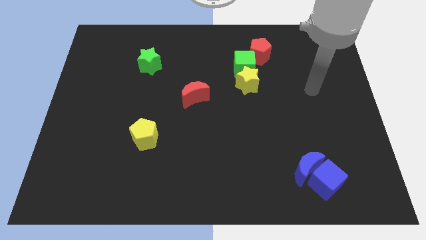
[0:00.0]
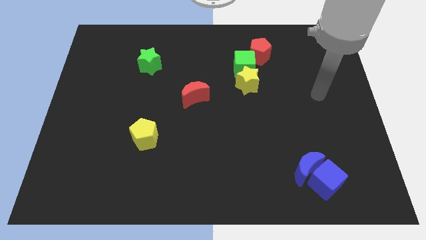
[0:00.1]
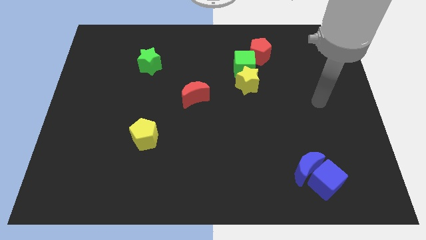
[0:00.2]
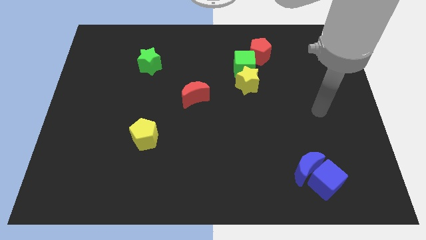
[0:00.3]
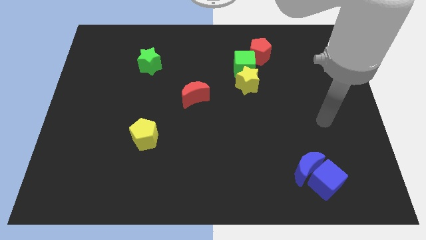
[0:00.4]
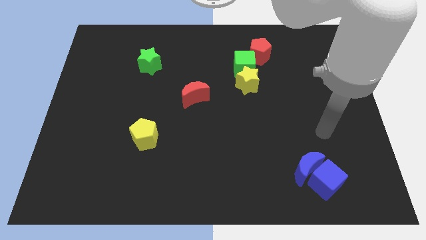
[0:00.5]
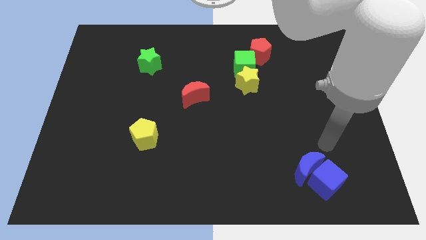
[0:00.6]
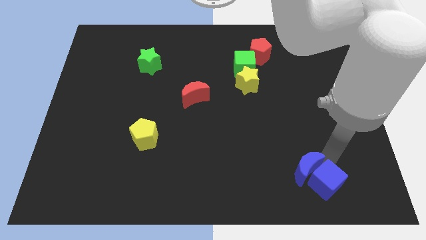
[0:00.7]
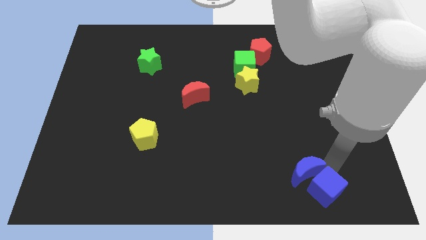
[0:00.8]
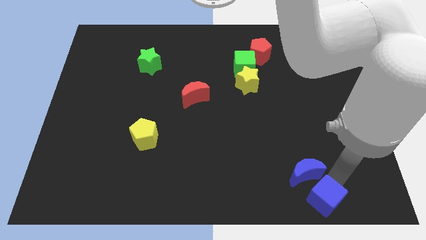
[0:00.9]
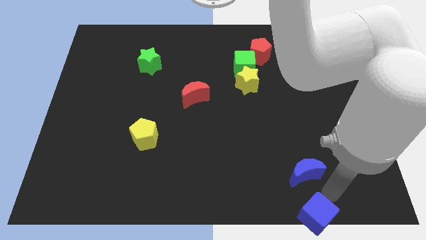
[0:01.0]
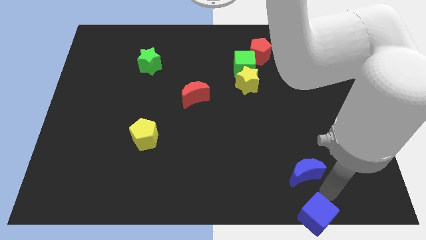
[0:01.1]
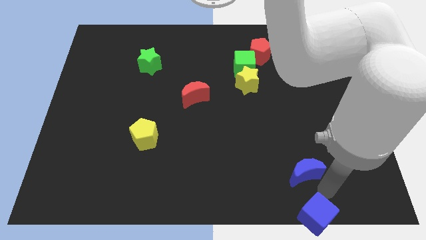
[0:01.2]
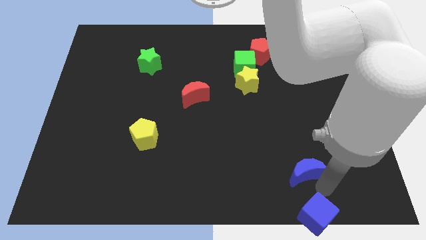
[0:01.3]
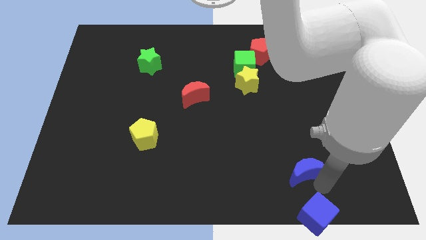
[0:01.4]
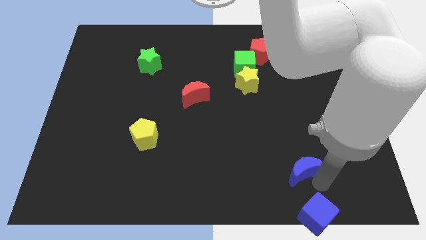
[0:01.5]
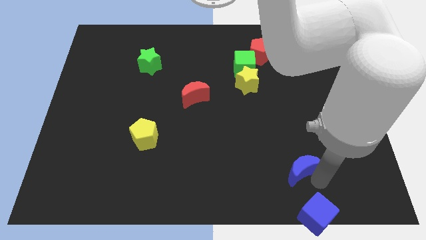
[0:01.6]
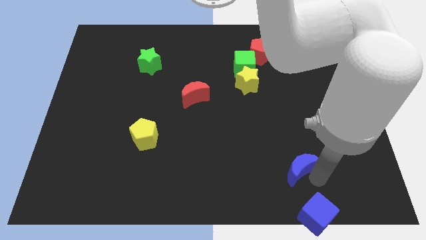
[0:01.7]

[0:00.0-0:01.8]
move the blue moon away from the blue cube

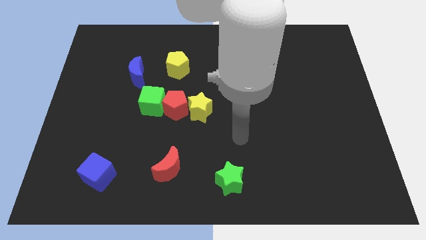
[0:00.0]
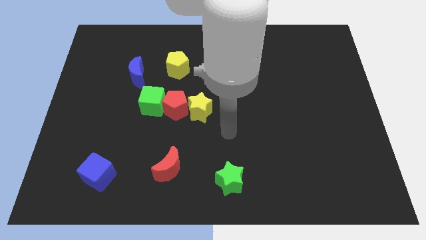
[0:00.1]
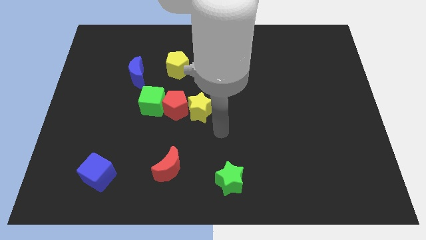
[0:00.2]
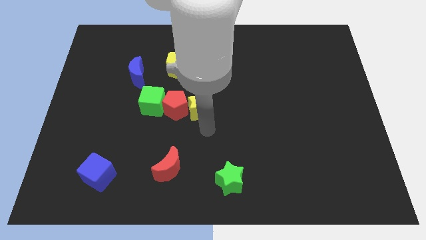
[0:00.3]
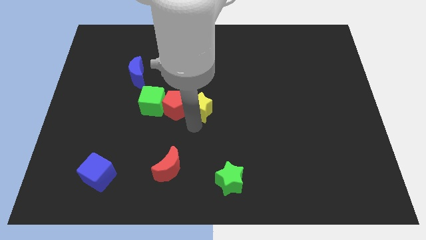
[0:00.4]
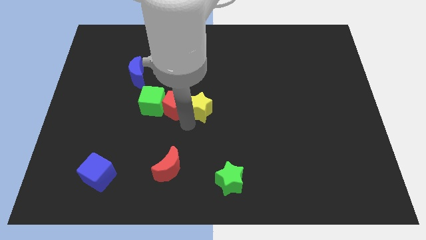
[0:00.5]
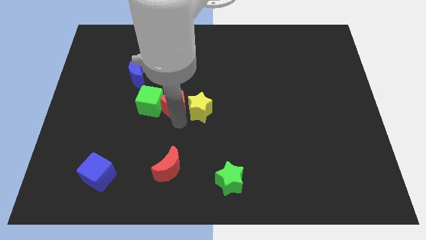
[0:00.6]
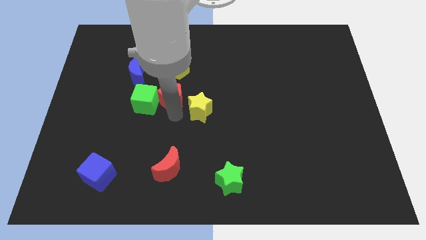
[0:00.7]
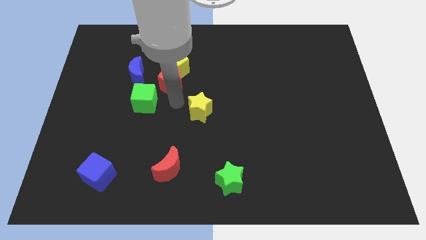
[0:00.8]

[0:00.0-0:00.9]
separate the yellow star from the red pentagon

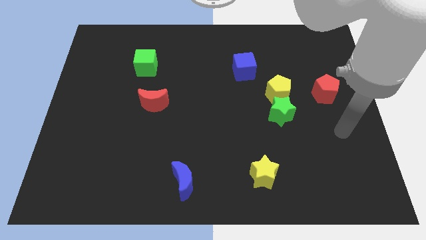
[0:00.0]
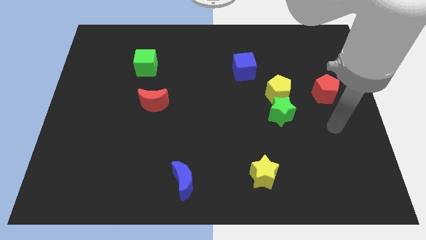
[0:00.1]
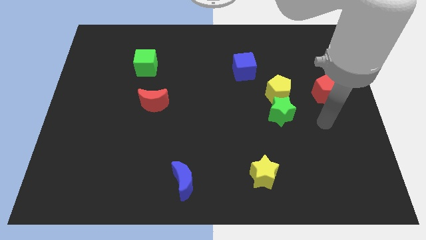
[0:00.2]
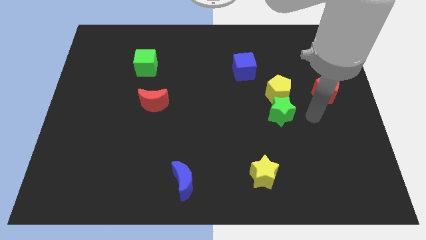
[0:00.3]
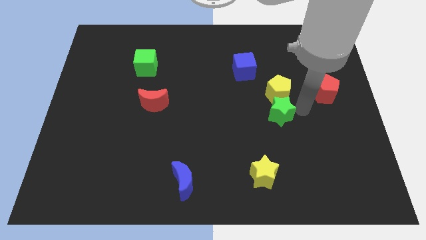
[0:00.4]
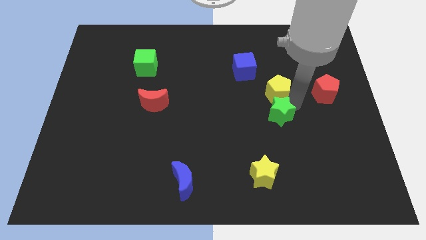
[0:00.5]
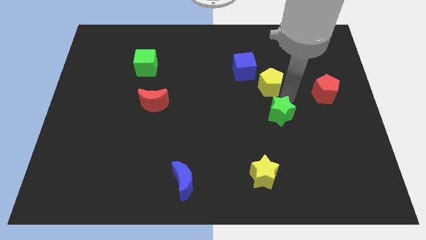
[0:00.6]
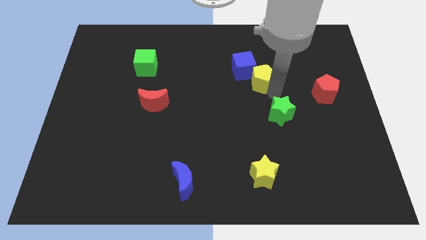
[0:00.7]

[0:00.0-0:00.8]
move the green star away from the yellow pentagon

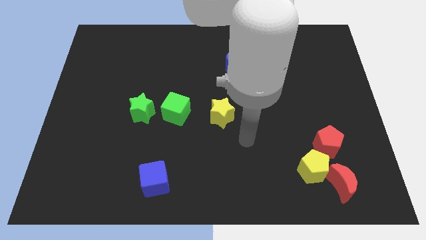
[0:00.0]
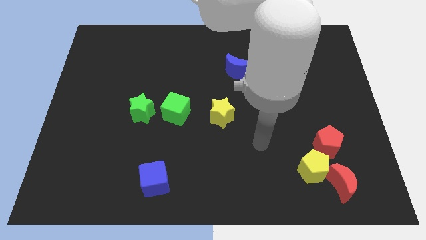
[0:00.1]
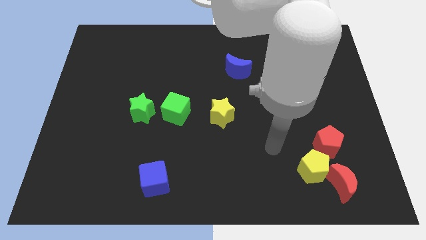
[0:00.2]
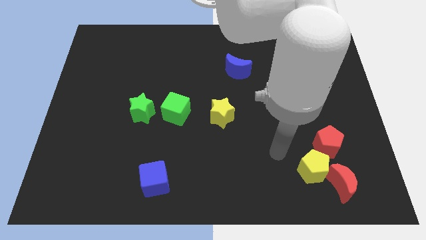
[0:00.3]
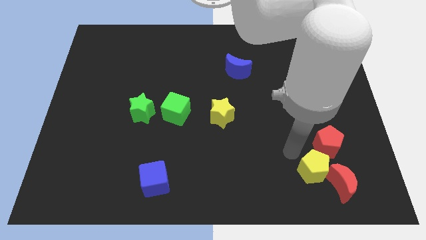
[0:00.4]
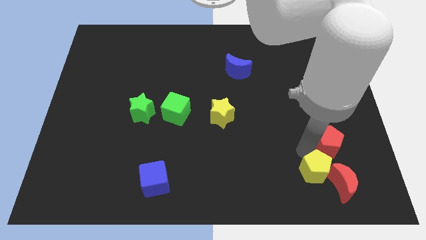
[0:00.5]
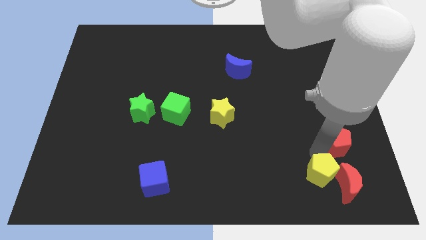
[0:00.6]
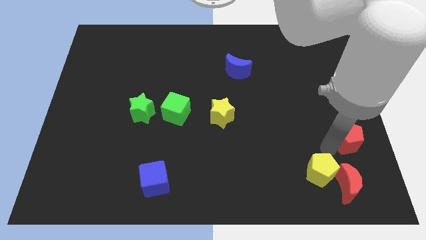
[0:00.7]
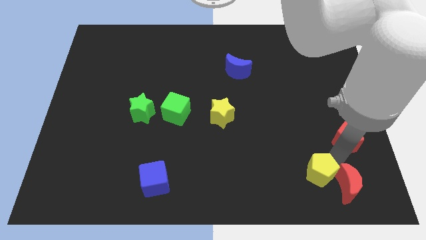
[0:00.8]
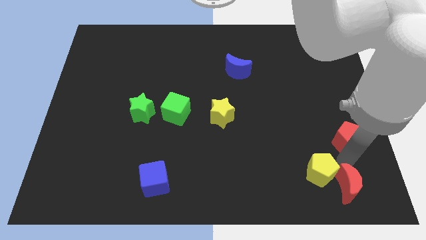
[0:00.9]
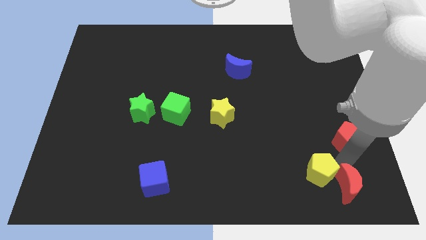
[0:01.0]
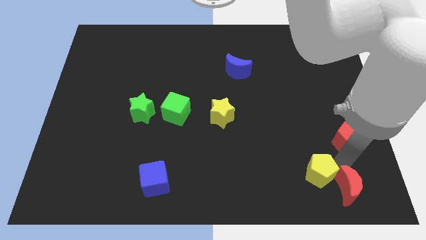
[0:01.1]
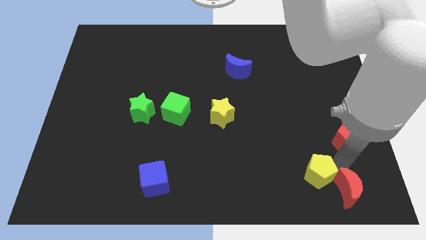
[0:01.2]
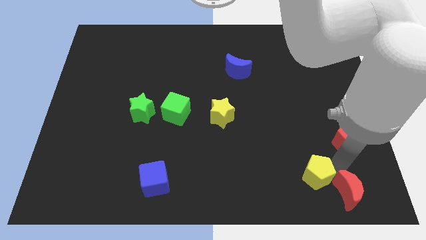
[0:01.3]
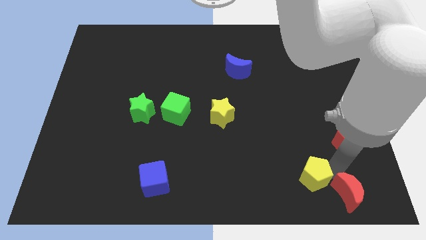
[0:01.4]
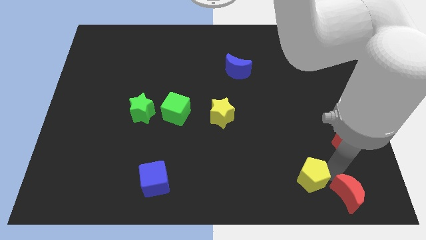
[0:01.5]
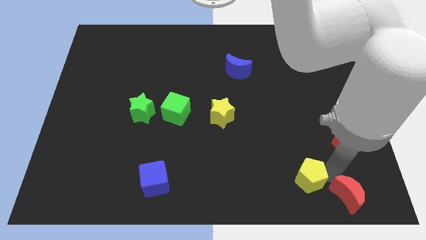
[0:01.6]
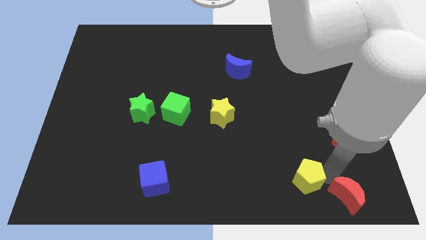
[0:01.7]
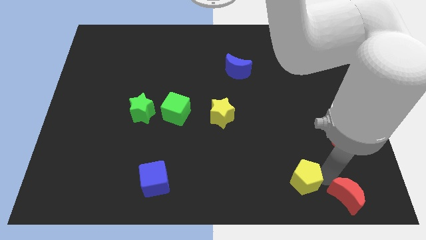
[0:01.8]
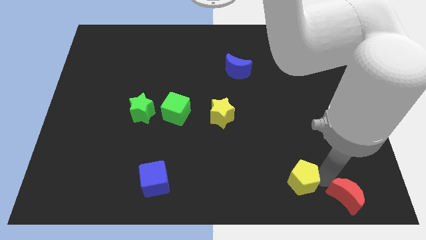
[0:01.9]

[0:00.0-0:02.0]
pull the yellow pentagon apart from the red moon and red pentagon

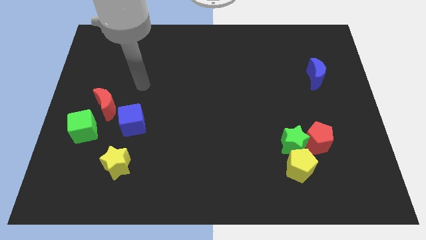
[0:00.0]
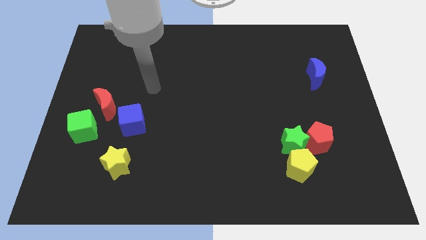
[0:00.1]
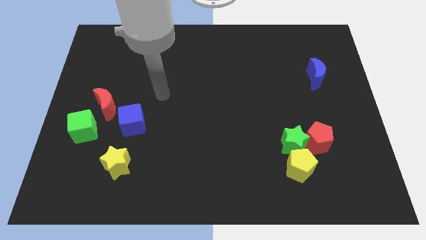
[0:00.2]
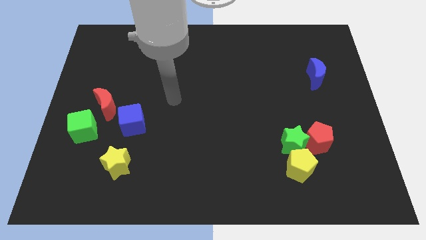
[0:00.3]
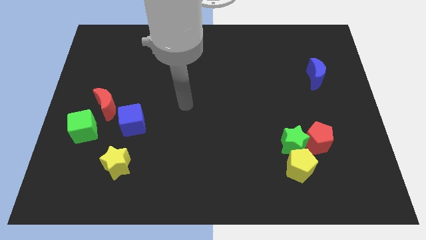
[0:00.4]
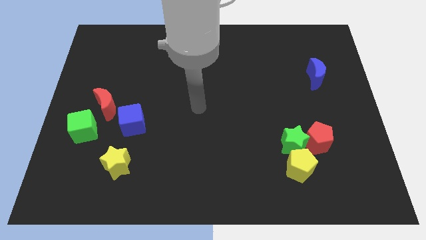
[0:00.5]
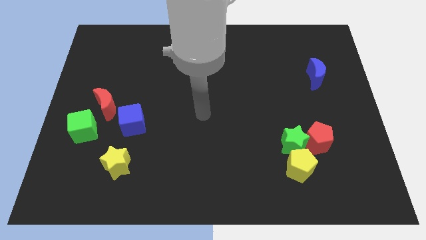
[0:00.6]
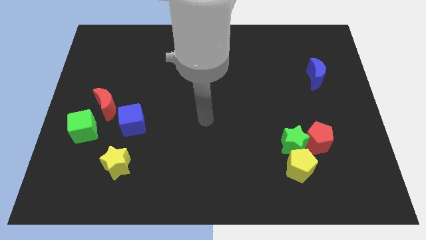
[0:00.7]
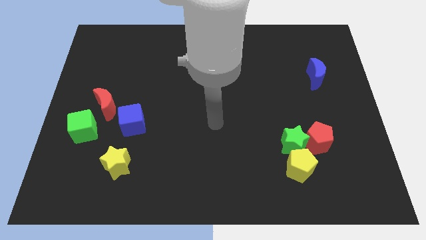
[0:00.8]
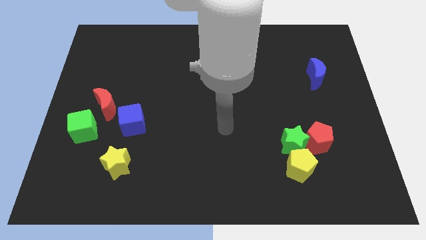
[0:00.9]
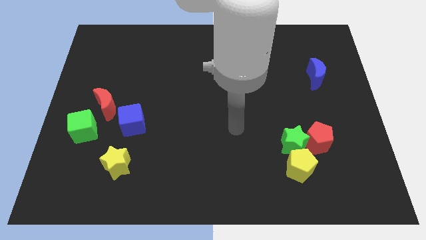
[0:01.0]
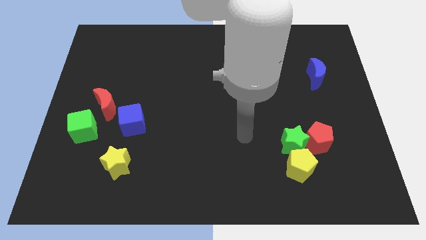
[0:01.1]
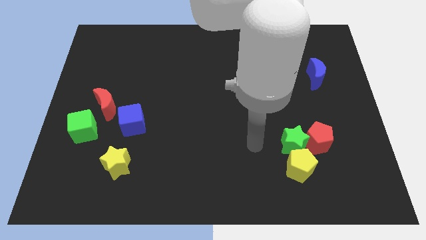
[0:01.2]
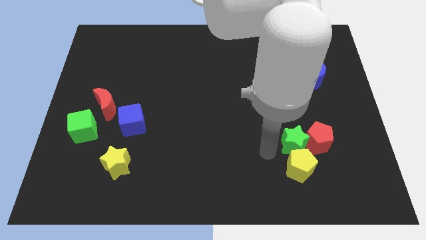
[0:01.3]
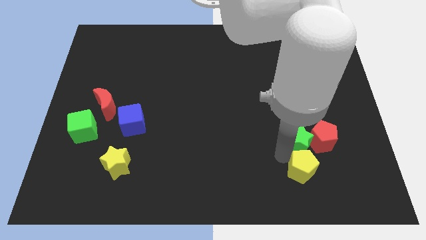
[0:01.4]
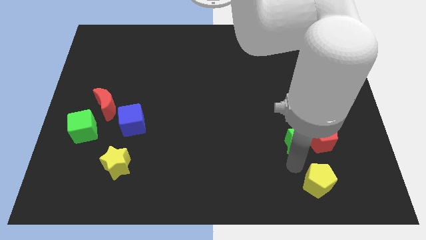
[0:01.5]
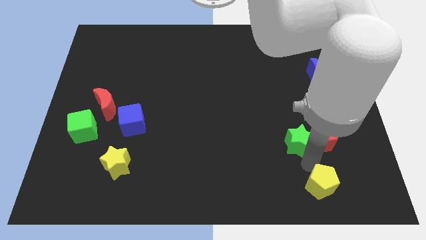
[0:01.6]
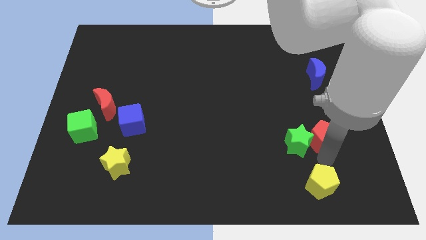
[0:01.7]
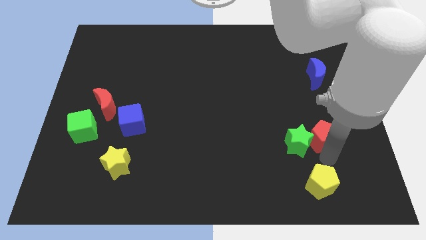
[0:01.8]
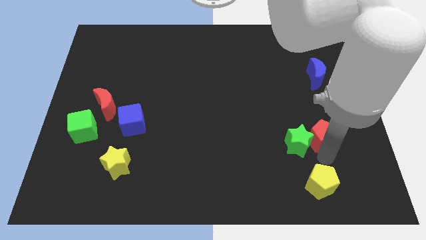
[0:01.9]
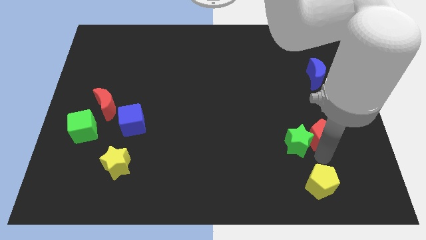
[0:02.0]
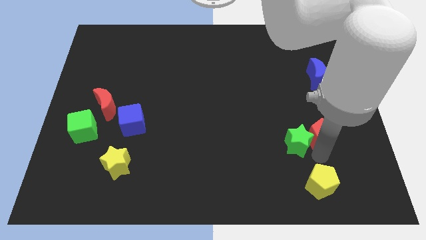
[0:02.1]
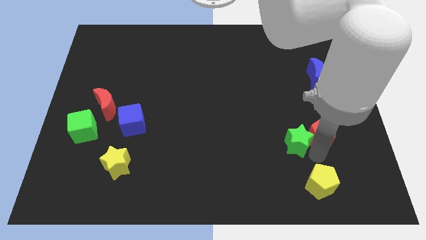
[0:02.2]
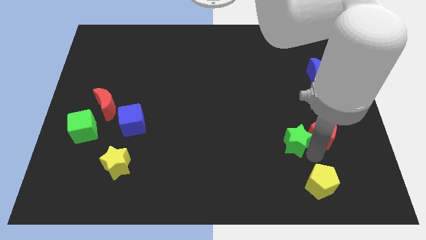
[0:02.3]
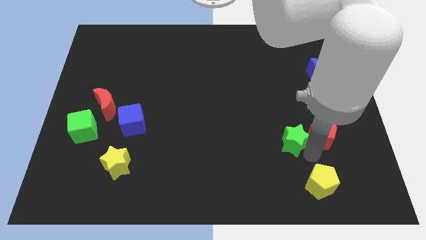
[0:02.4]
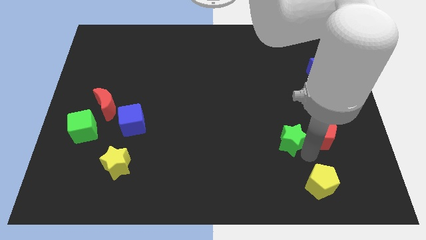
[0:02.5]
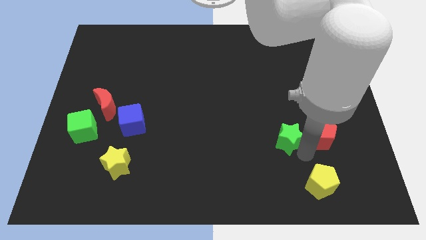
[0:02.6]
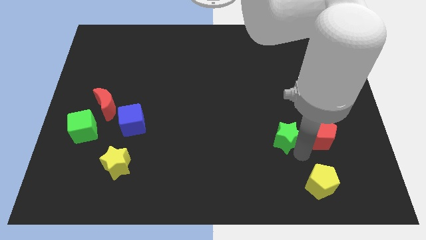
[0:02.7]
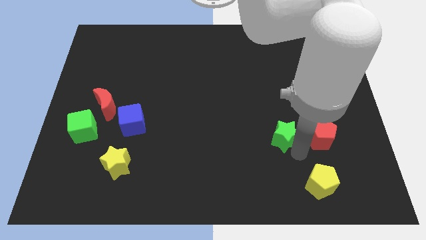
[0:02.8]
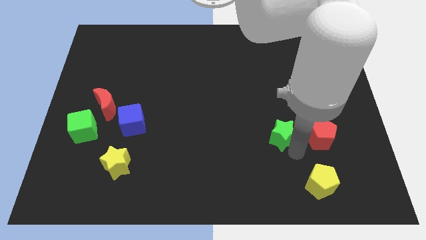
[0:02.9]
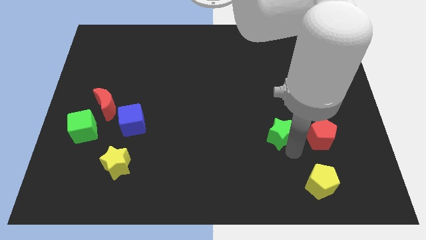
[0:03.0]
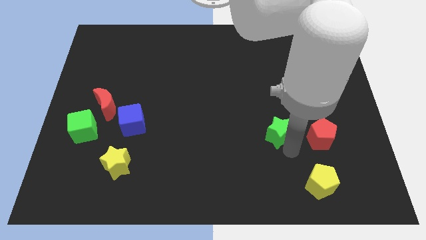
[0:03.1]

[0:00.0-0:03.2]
separate the green star from the red pentagon and yellow pentagon

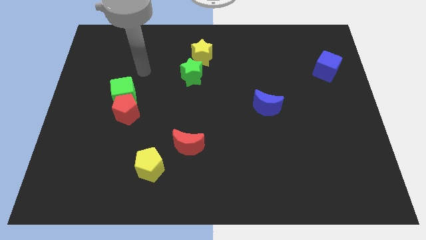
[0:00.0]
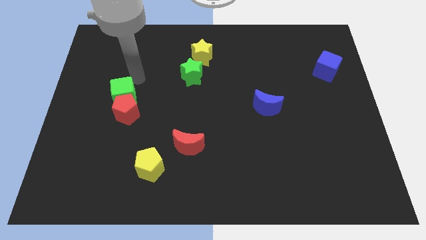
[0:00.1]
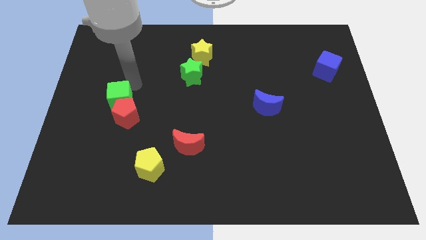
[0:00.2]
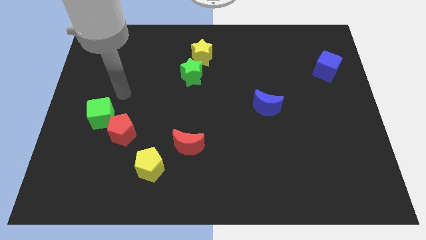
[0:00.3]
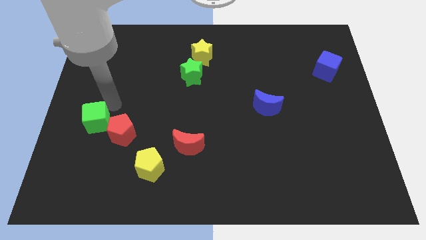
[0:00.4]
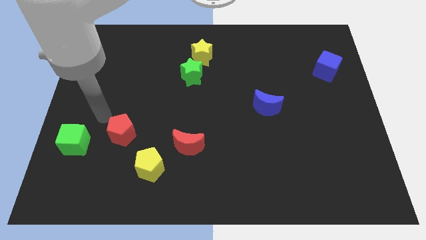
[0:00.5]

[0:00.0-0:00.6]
pull the red pentagon apart from the green cube
